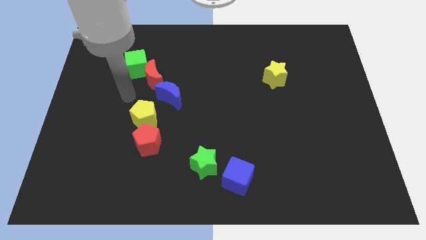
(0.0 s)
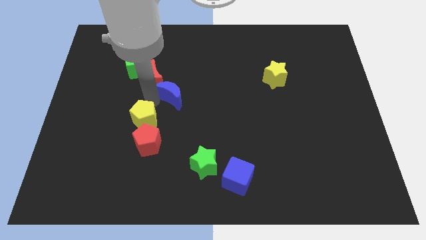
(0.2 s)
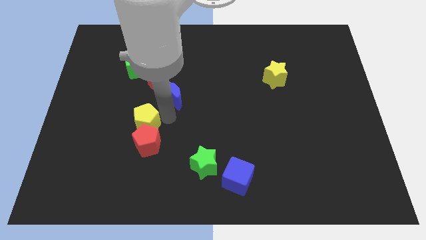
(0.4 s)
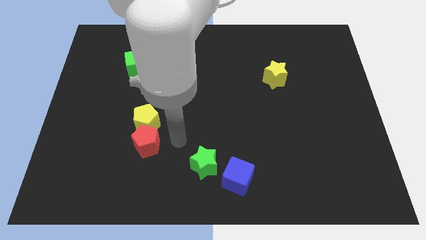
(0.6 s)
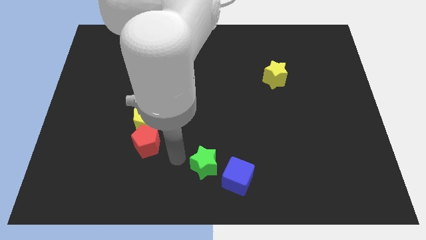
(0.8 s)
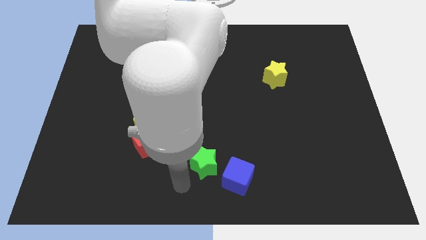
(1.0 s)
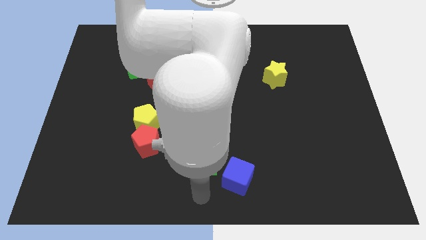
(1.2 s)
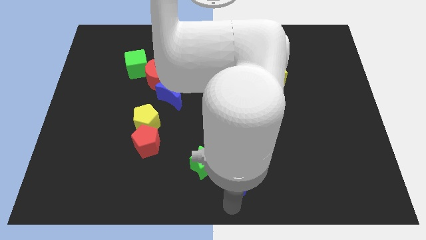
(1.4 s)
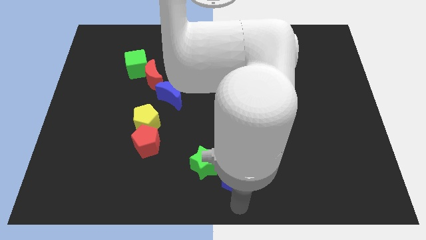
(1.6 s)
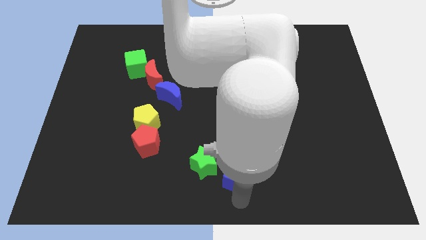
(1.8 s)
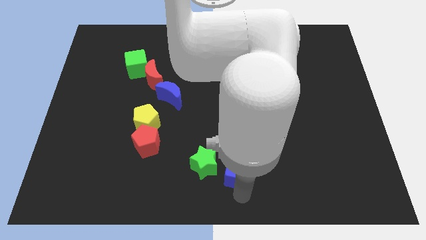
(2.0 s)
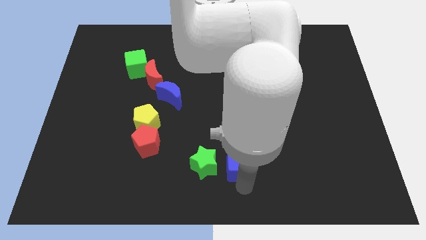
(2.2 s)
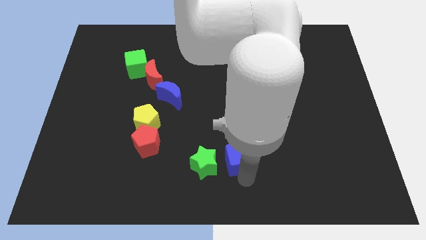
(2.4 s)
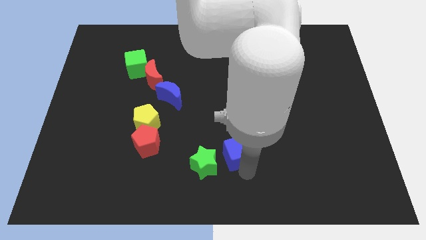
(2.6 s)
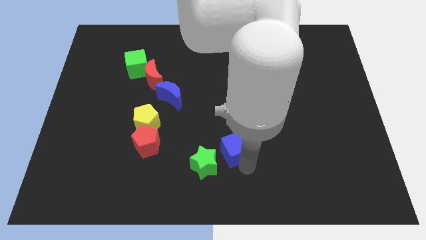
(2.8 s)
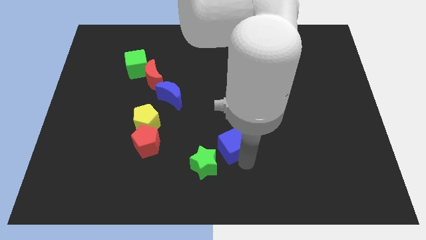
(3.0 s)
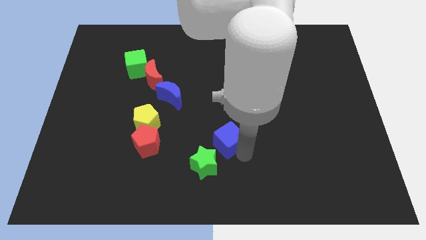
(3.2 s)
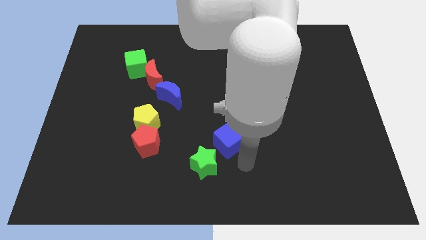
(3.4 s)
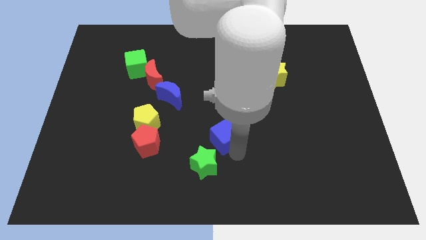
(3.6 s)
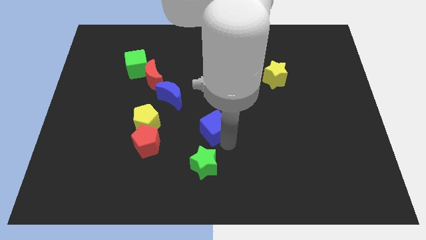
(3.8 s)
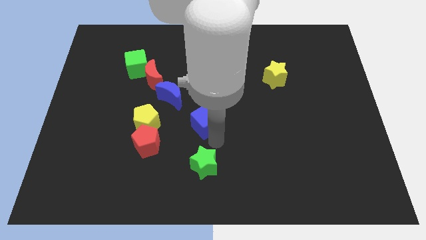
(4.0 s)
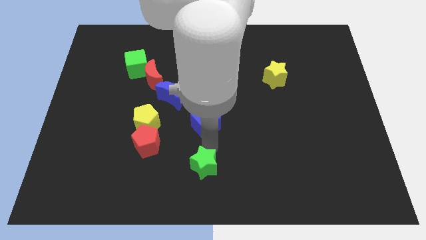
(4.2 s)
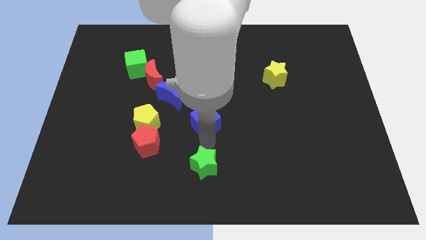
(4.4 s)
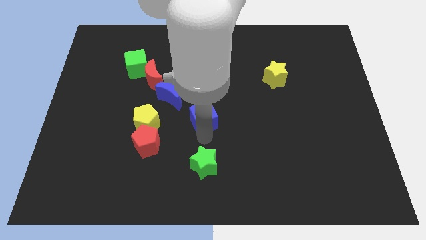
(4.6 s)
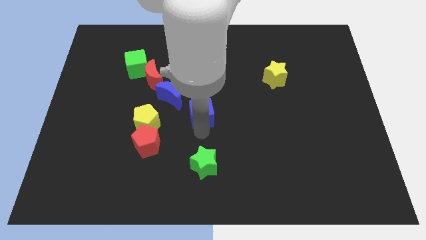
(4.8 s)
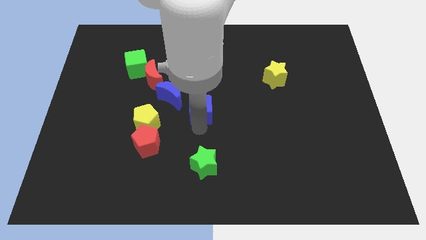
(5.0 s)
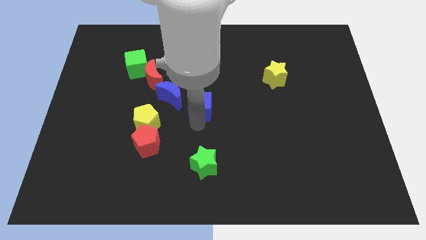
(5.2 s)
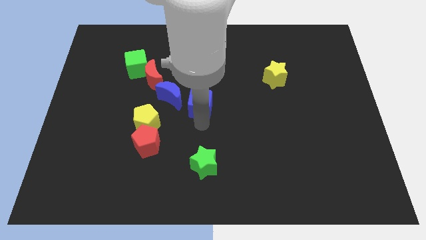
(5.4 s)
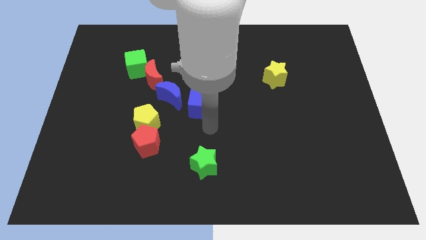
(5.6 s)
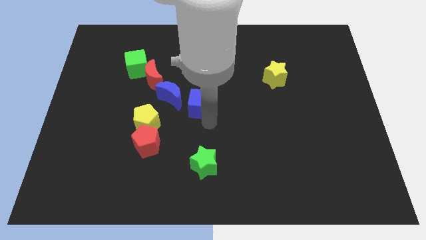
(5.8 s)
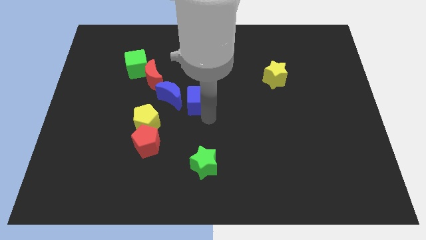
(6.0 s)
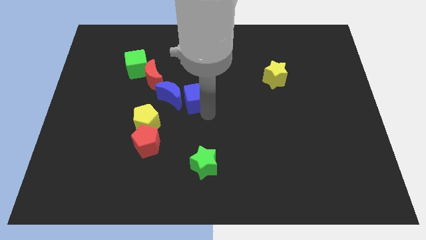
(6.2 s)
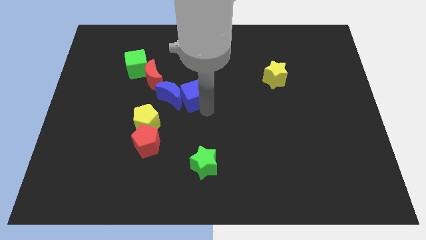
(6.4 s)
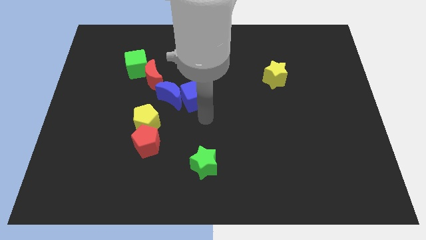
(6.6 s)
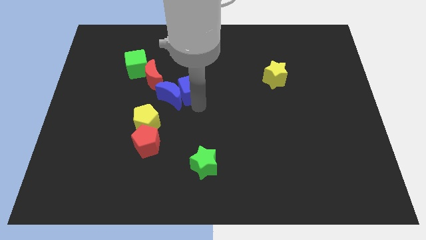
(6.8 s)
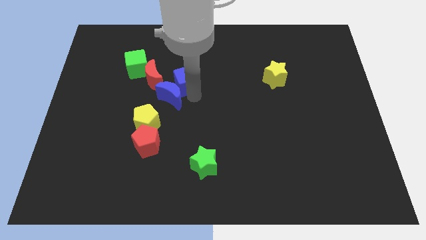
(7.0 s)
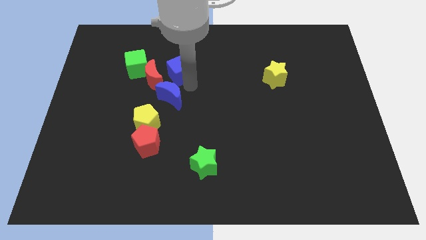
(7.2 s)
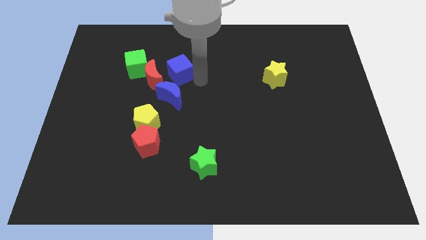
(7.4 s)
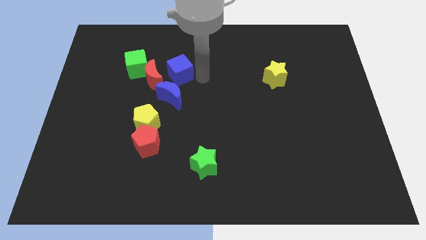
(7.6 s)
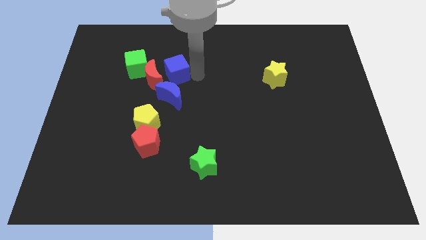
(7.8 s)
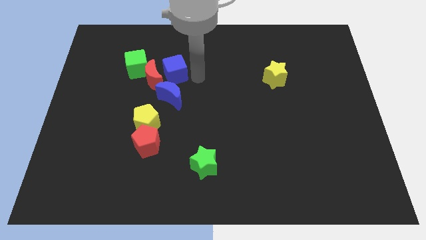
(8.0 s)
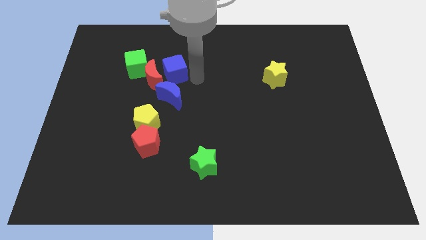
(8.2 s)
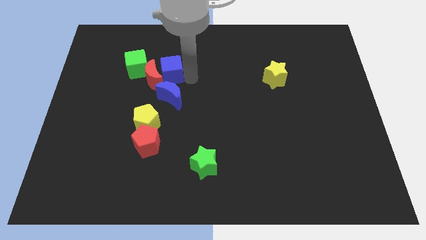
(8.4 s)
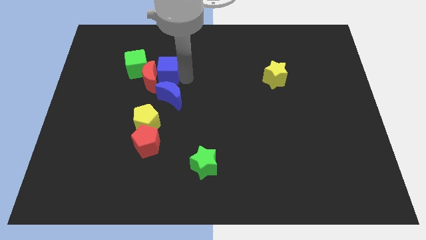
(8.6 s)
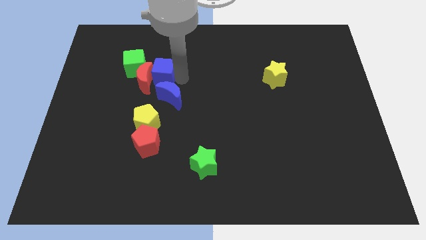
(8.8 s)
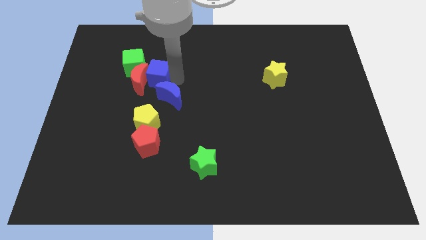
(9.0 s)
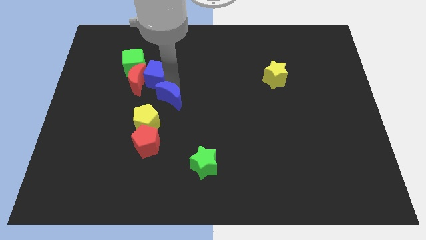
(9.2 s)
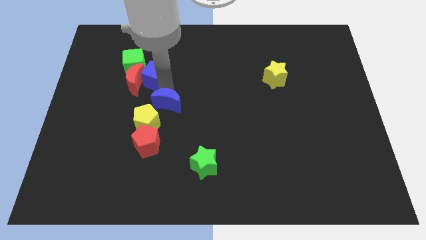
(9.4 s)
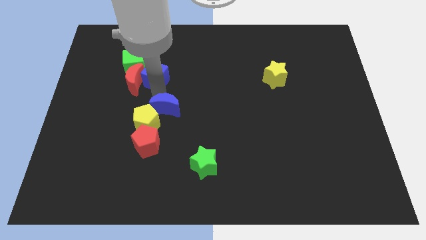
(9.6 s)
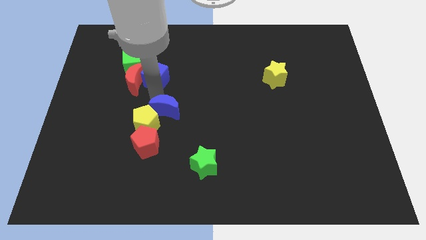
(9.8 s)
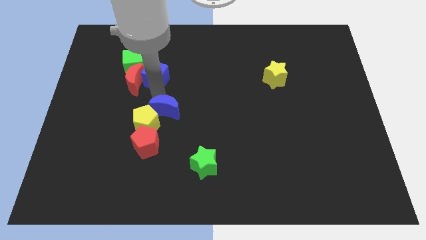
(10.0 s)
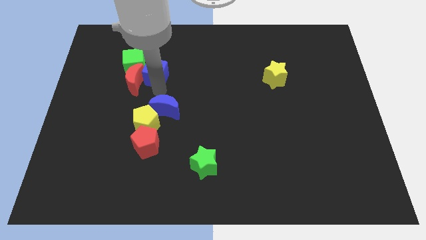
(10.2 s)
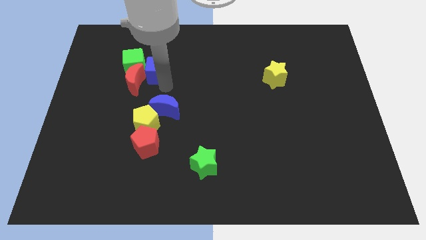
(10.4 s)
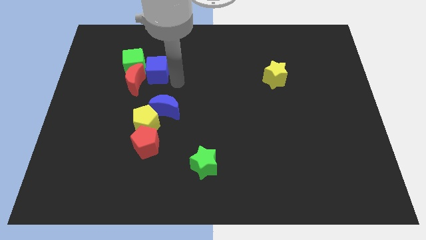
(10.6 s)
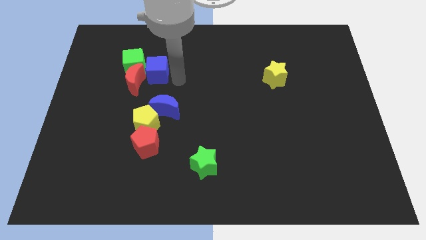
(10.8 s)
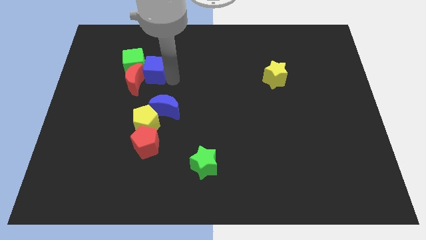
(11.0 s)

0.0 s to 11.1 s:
put the blue cube next to the green cube

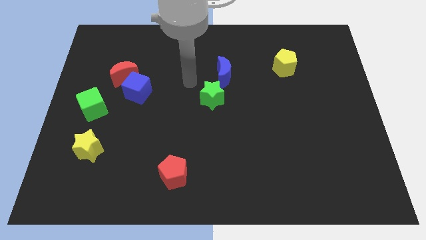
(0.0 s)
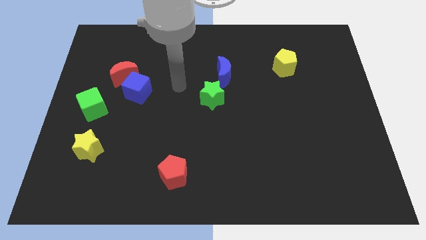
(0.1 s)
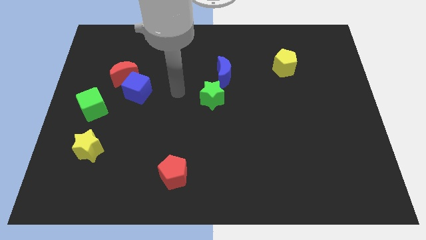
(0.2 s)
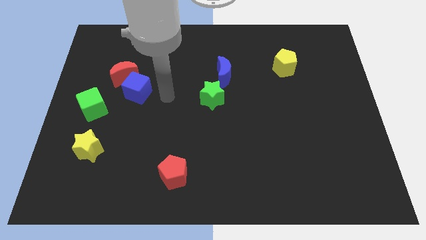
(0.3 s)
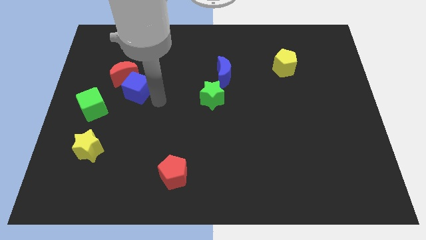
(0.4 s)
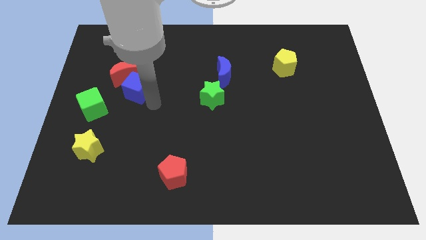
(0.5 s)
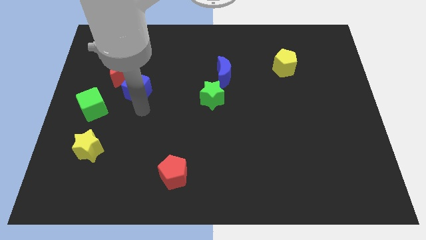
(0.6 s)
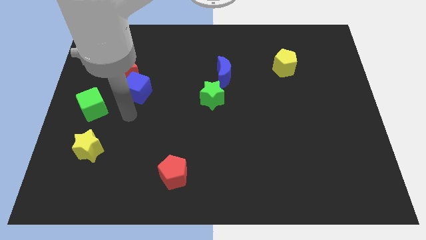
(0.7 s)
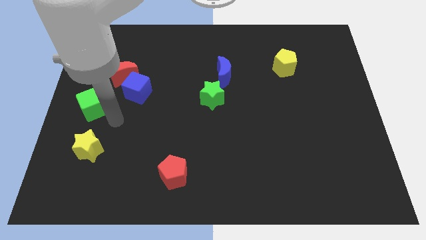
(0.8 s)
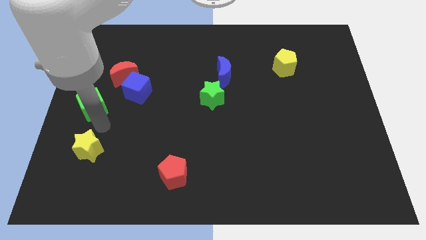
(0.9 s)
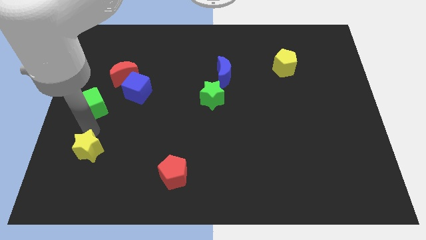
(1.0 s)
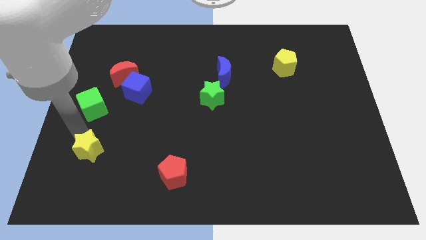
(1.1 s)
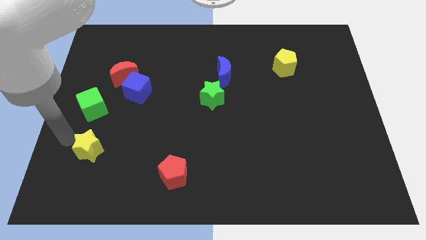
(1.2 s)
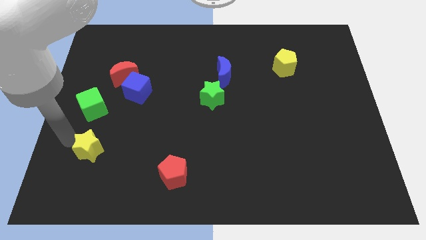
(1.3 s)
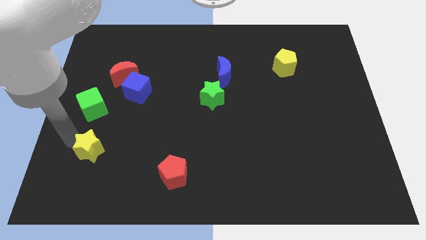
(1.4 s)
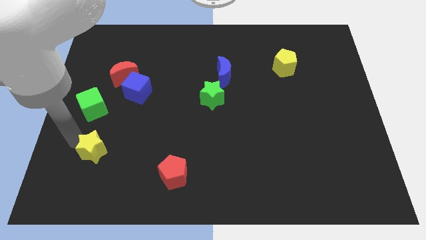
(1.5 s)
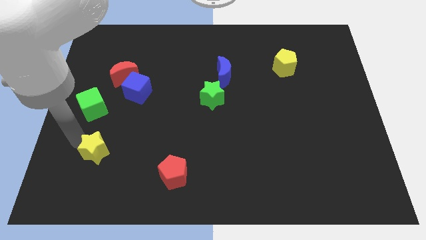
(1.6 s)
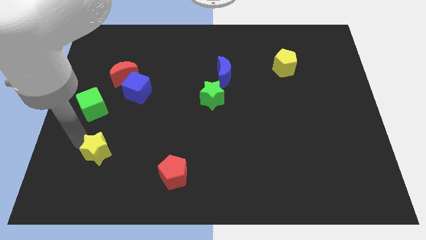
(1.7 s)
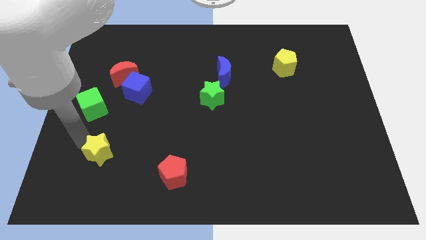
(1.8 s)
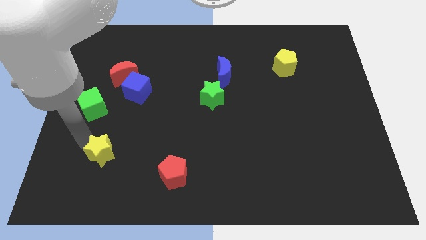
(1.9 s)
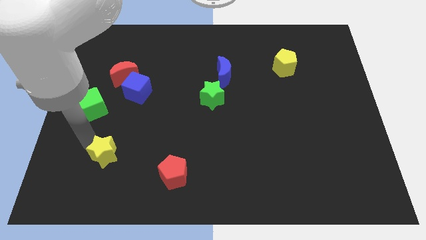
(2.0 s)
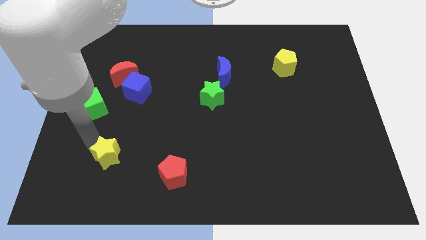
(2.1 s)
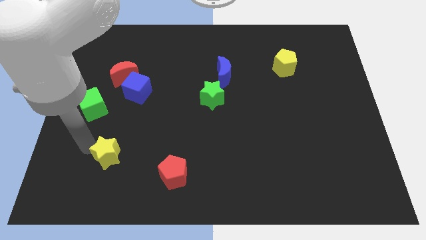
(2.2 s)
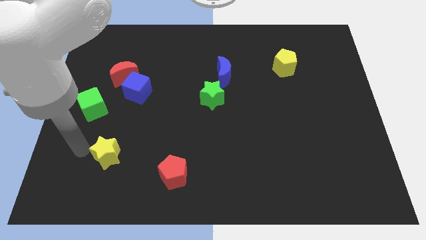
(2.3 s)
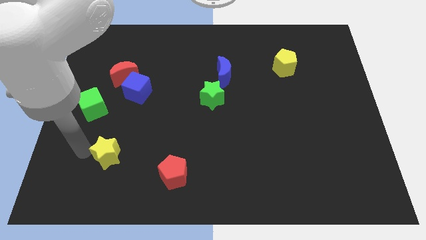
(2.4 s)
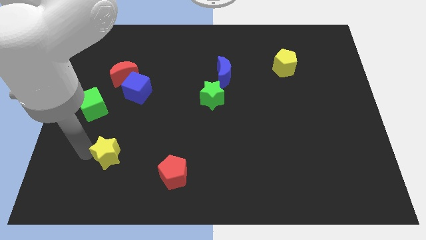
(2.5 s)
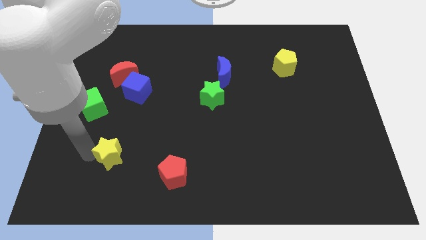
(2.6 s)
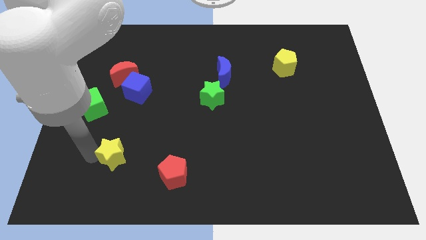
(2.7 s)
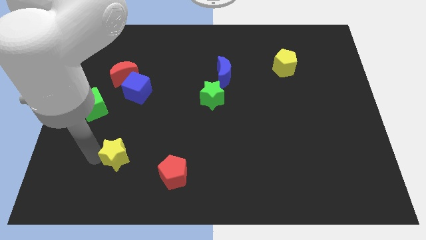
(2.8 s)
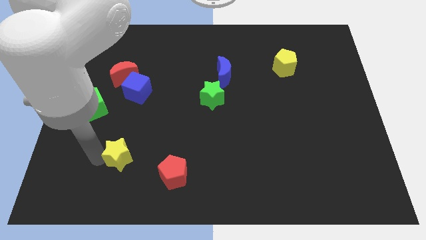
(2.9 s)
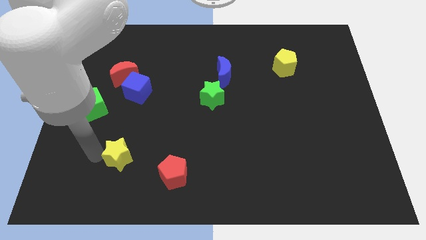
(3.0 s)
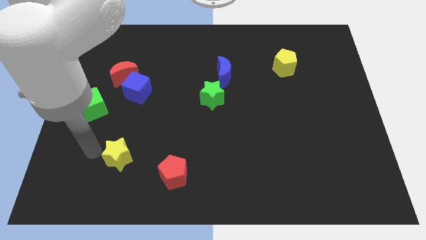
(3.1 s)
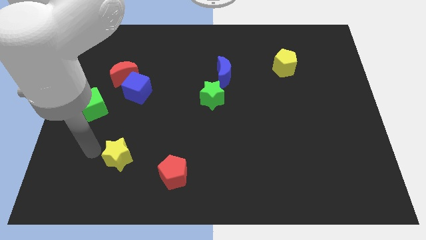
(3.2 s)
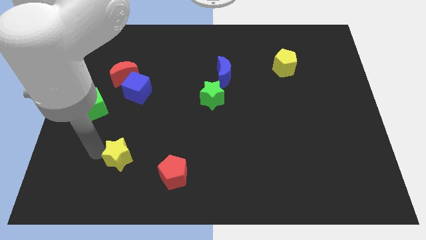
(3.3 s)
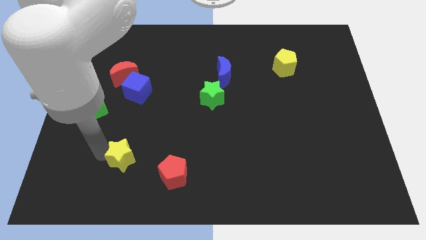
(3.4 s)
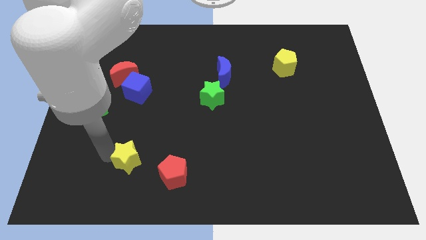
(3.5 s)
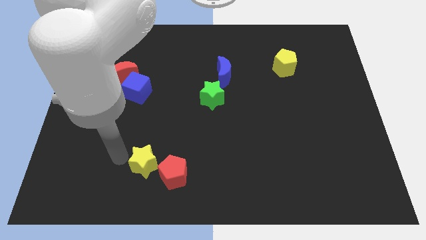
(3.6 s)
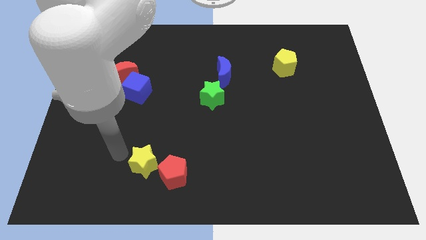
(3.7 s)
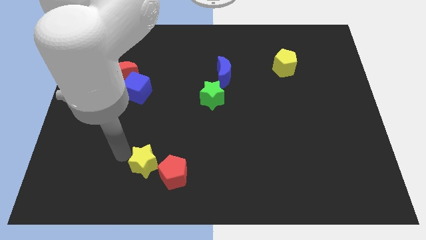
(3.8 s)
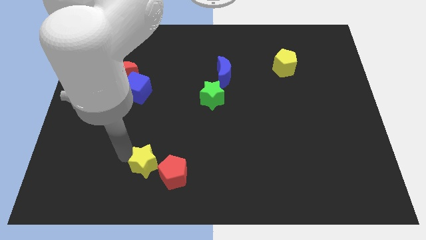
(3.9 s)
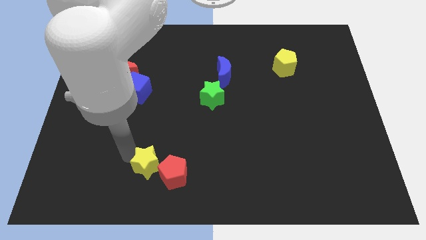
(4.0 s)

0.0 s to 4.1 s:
slide the yellow star close to the red pentagon
